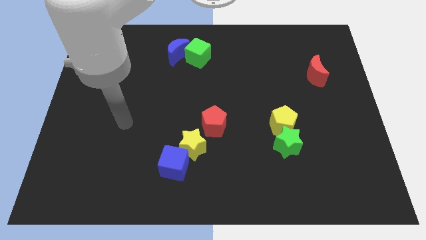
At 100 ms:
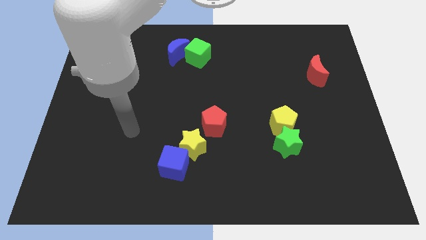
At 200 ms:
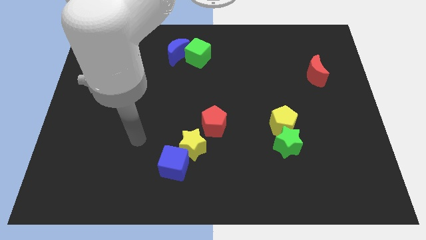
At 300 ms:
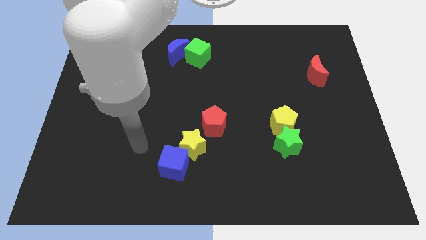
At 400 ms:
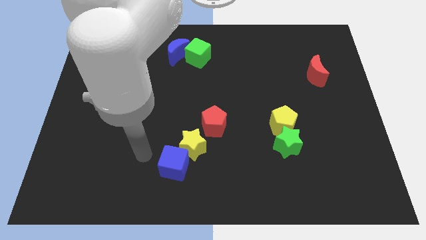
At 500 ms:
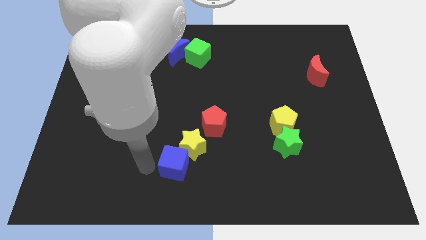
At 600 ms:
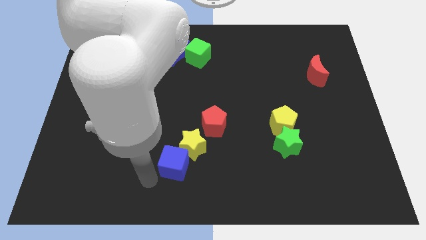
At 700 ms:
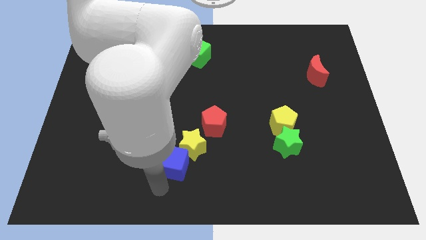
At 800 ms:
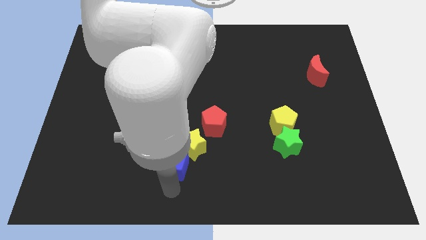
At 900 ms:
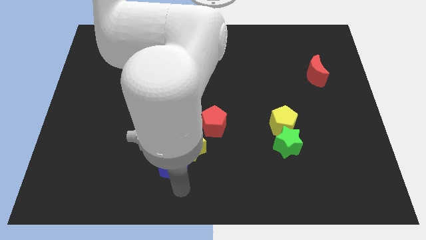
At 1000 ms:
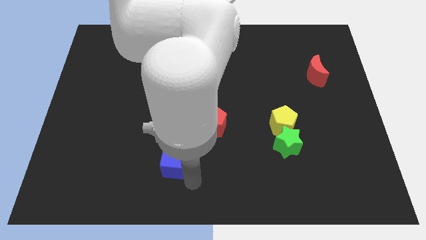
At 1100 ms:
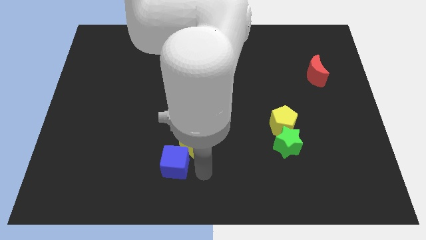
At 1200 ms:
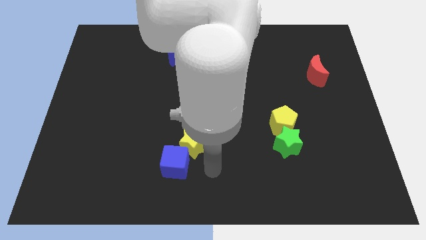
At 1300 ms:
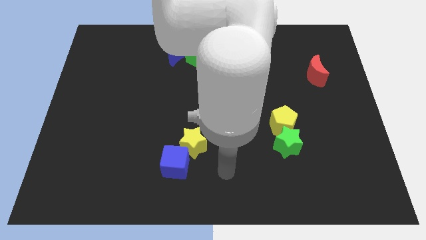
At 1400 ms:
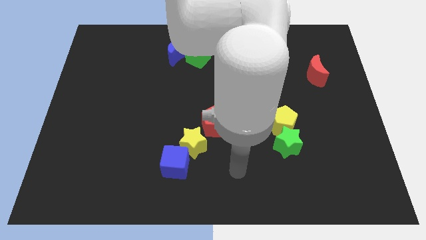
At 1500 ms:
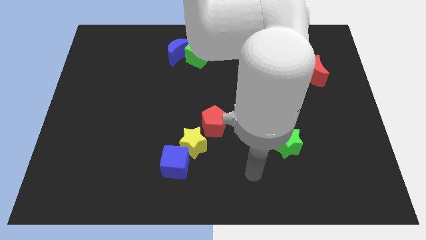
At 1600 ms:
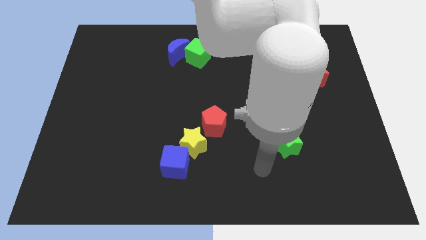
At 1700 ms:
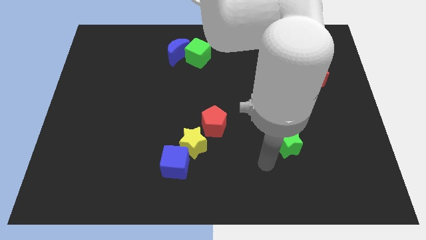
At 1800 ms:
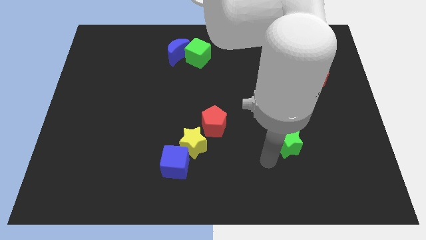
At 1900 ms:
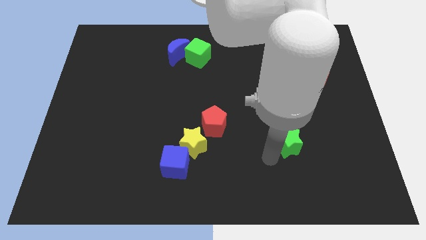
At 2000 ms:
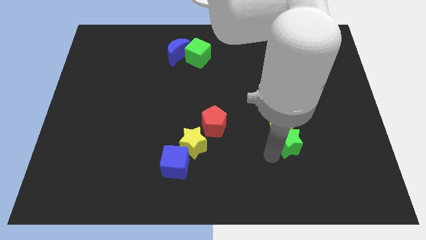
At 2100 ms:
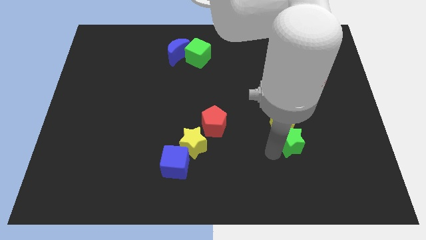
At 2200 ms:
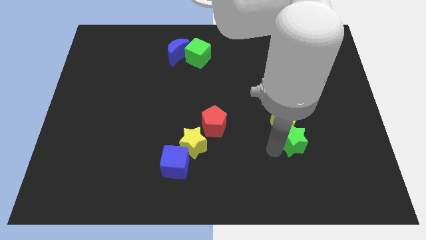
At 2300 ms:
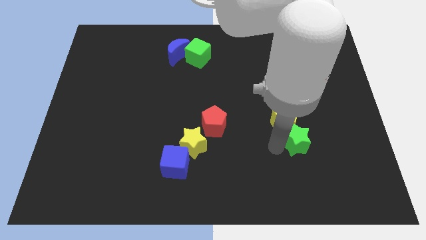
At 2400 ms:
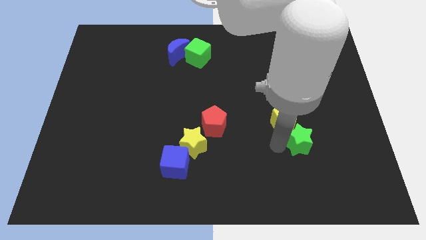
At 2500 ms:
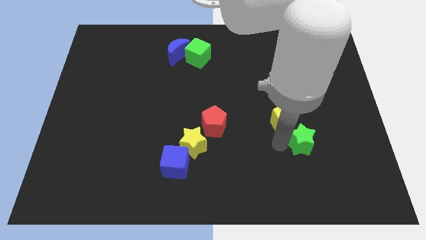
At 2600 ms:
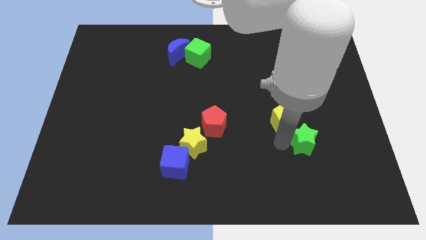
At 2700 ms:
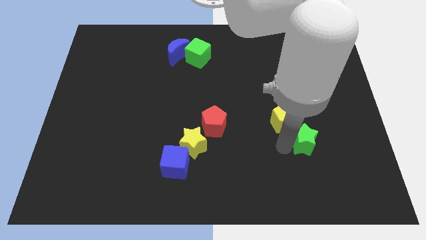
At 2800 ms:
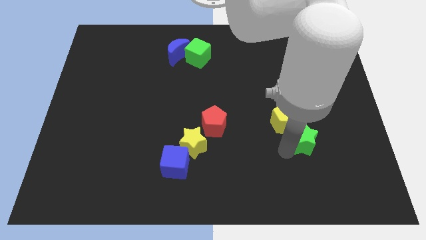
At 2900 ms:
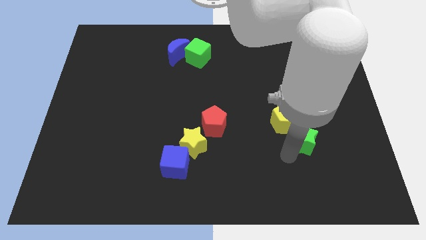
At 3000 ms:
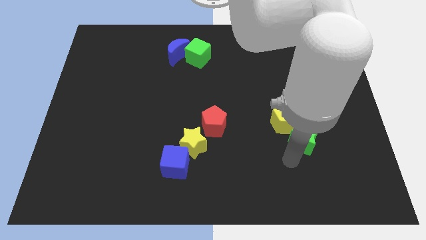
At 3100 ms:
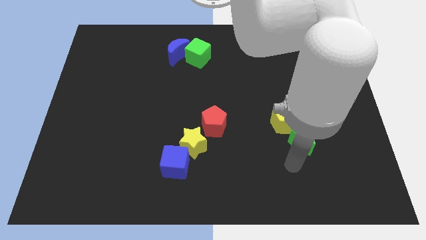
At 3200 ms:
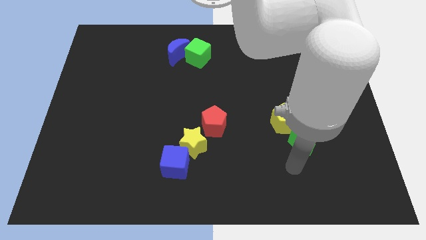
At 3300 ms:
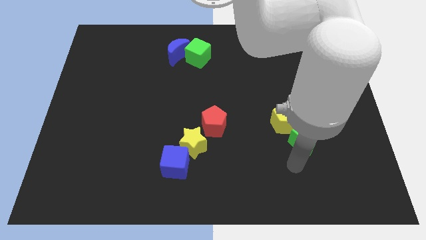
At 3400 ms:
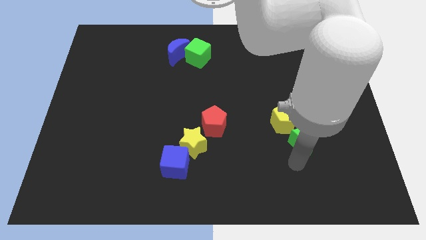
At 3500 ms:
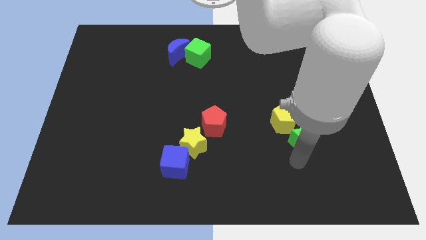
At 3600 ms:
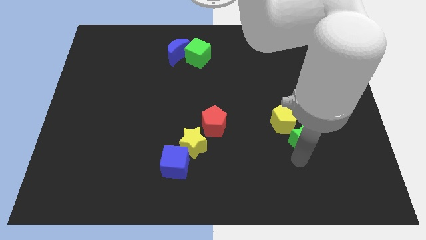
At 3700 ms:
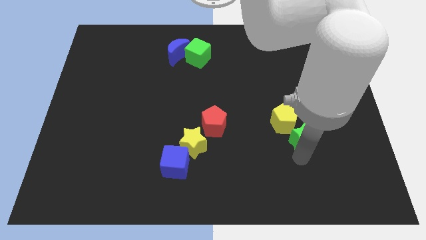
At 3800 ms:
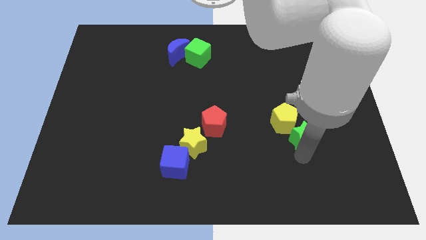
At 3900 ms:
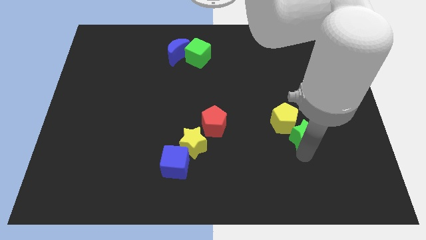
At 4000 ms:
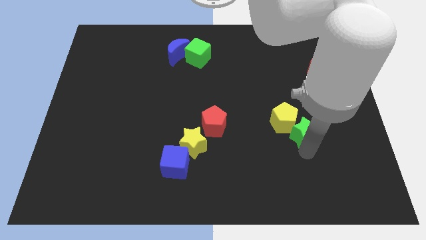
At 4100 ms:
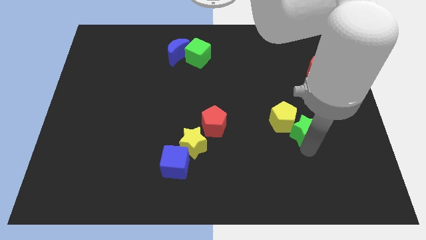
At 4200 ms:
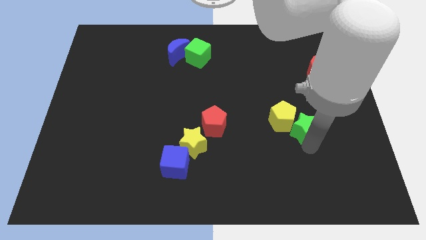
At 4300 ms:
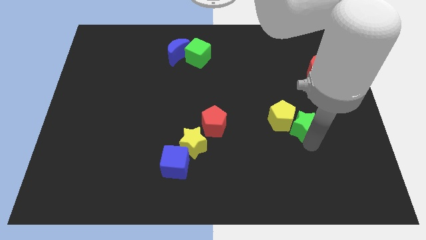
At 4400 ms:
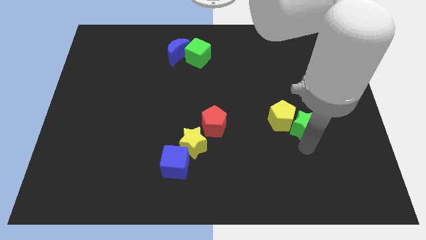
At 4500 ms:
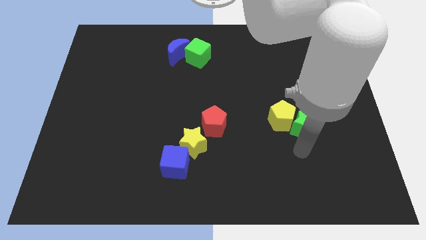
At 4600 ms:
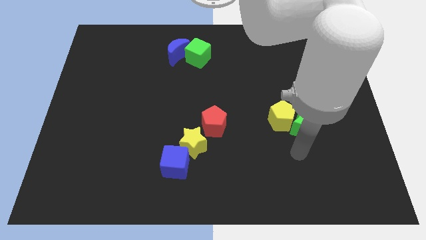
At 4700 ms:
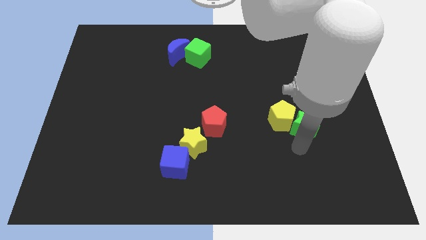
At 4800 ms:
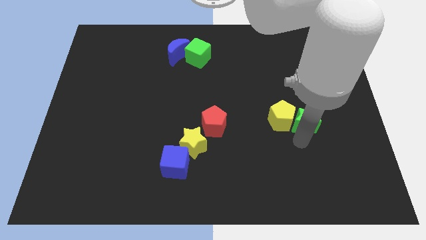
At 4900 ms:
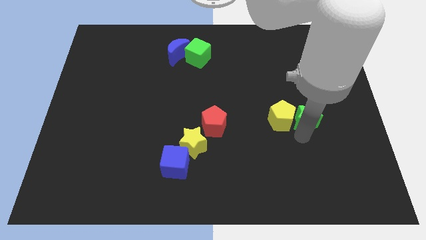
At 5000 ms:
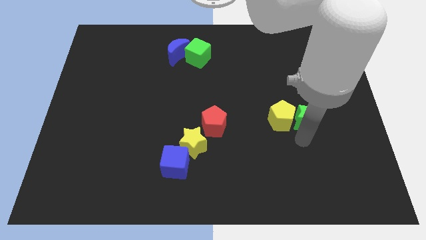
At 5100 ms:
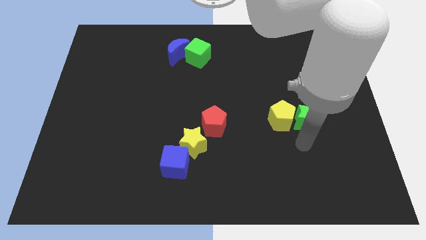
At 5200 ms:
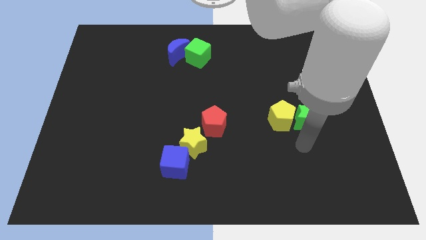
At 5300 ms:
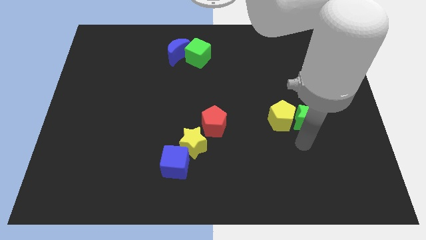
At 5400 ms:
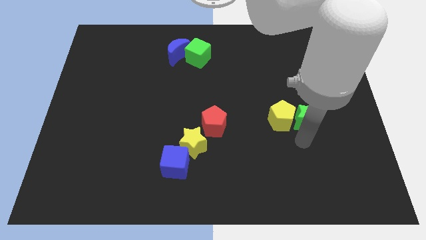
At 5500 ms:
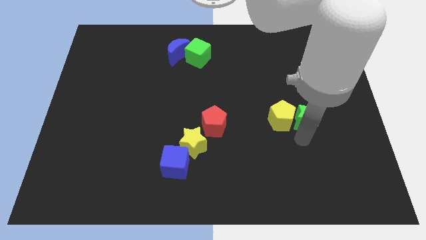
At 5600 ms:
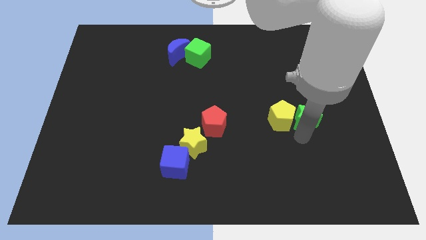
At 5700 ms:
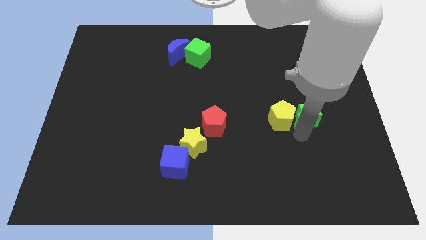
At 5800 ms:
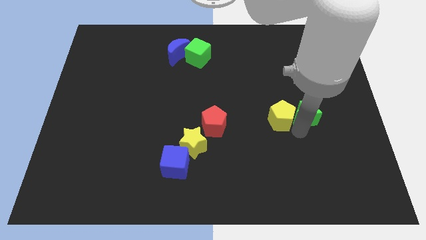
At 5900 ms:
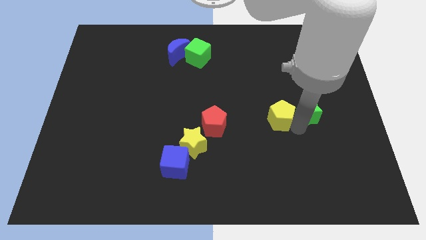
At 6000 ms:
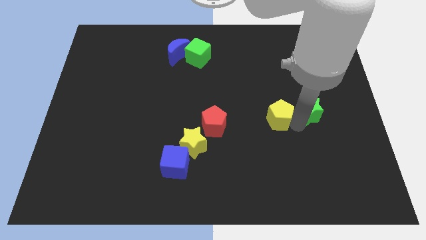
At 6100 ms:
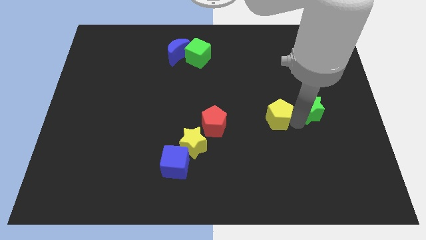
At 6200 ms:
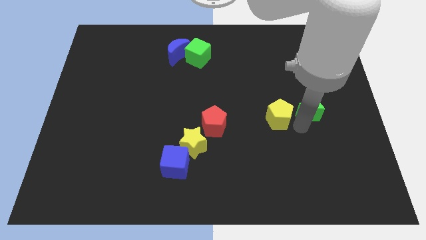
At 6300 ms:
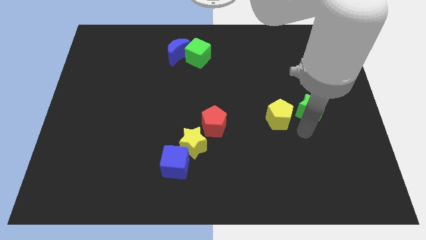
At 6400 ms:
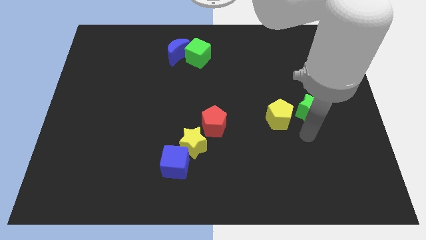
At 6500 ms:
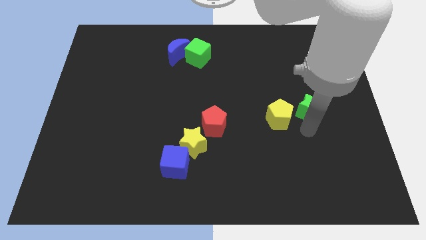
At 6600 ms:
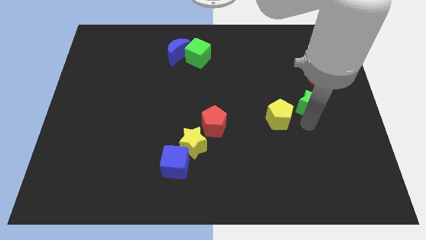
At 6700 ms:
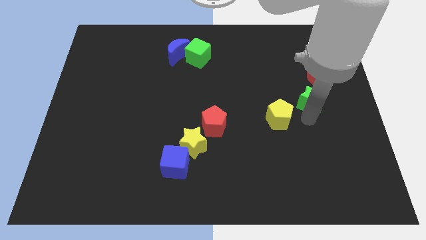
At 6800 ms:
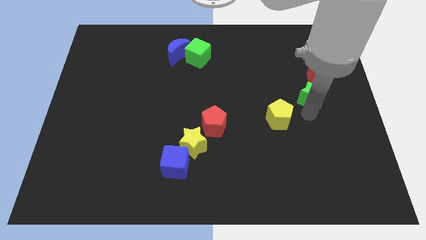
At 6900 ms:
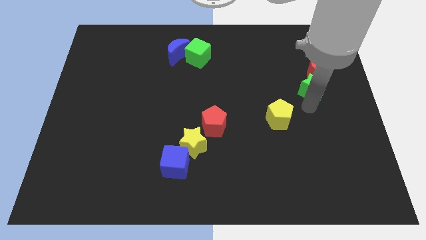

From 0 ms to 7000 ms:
push the green star to the red moon
